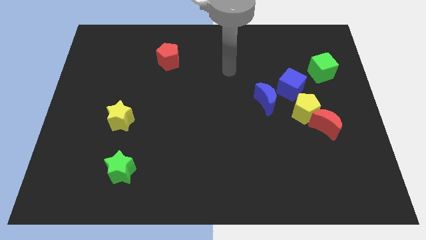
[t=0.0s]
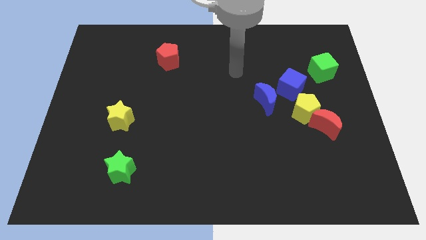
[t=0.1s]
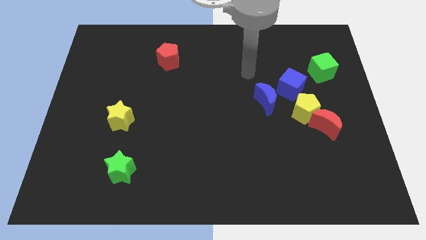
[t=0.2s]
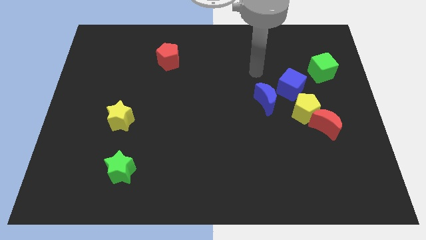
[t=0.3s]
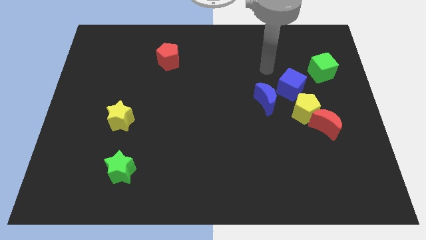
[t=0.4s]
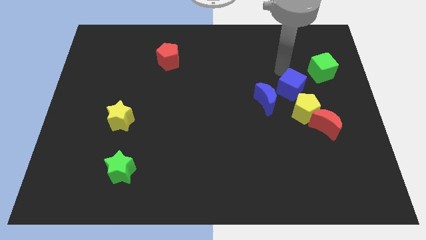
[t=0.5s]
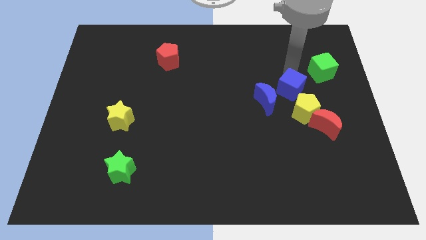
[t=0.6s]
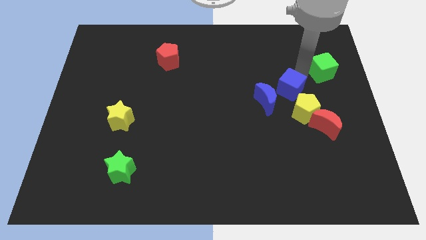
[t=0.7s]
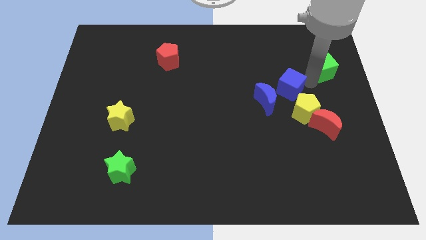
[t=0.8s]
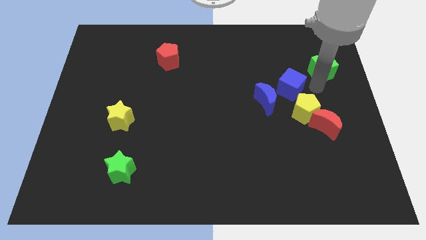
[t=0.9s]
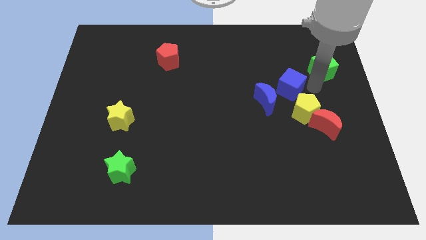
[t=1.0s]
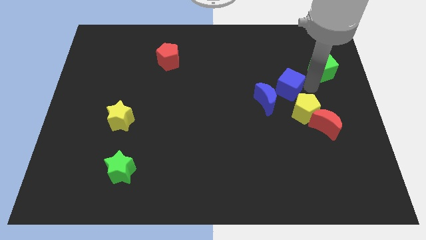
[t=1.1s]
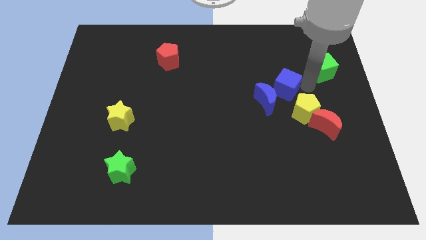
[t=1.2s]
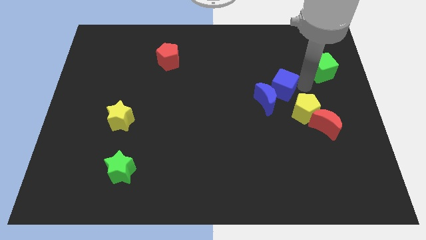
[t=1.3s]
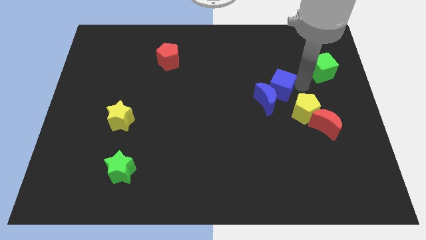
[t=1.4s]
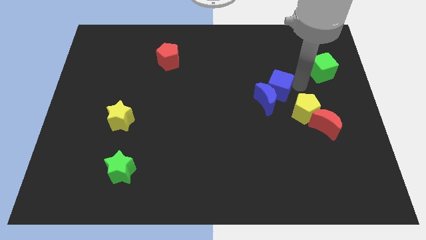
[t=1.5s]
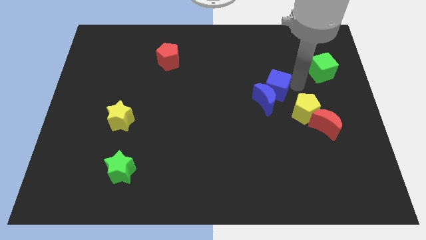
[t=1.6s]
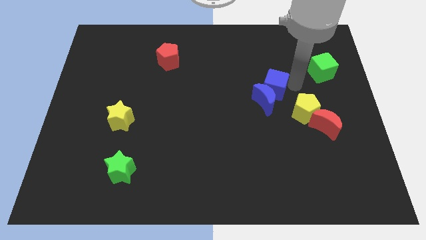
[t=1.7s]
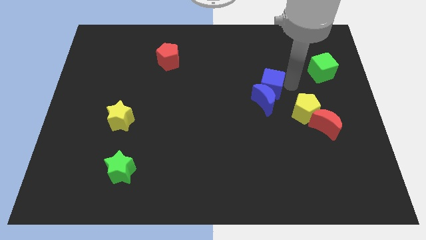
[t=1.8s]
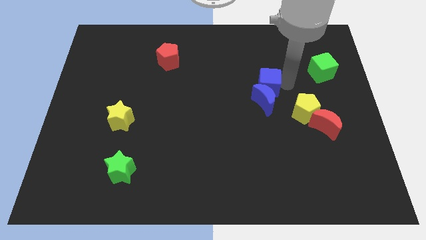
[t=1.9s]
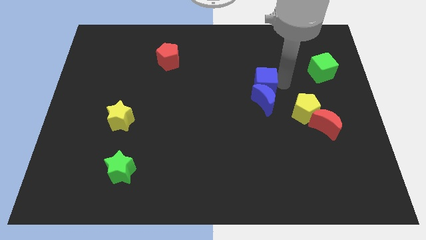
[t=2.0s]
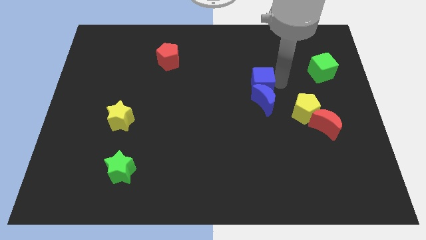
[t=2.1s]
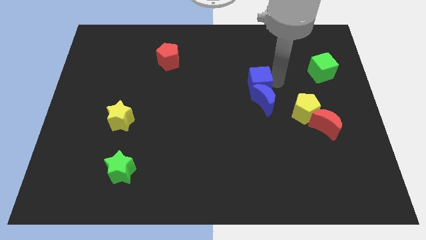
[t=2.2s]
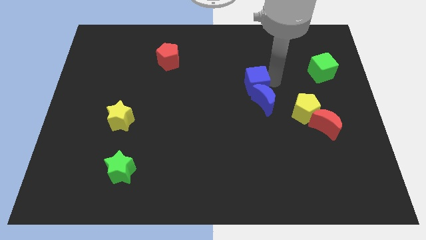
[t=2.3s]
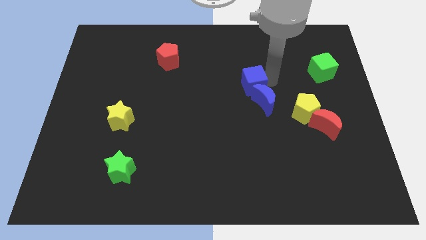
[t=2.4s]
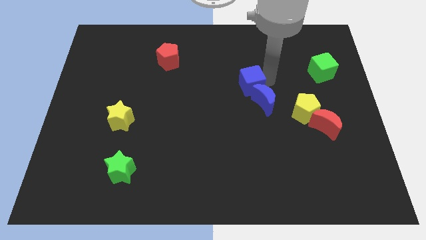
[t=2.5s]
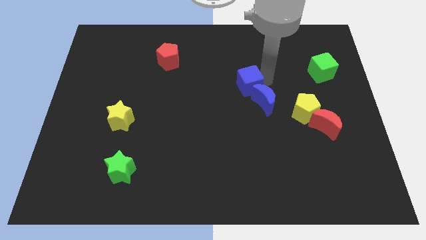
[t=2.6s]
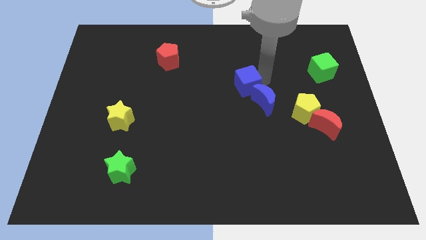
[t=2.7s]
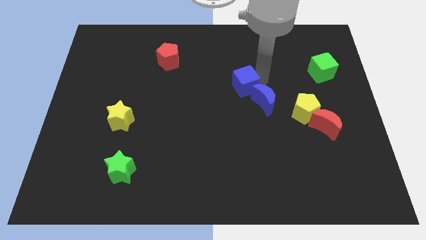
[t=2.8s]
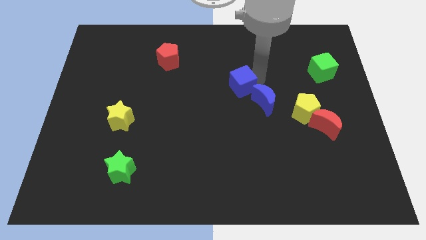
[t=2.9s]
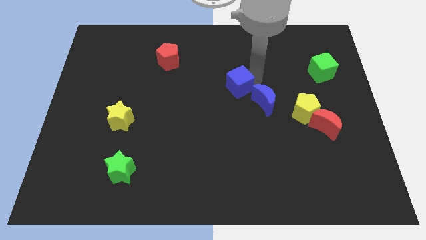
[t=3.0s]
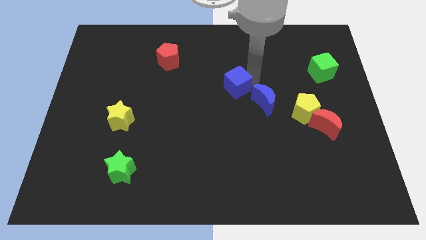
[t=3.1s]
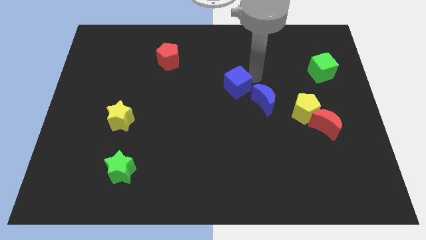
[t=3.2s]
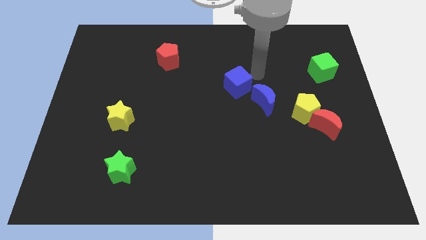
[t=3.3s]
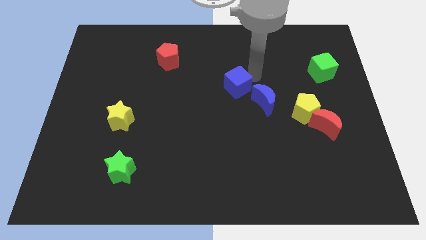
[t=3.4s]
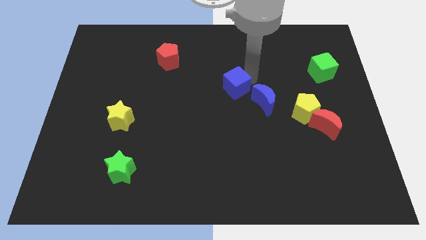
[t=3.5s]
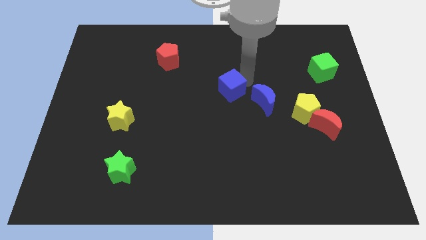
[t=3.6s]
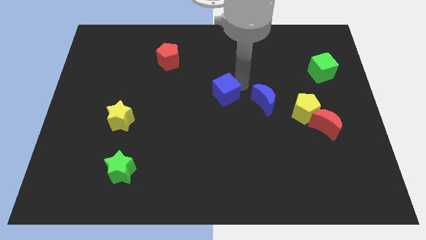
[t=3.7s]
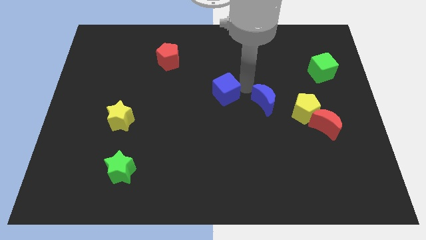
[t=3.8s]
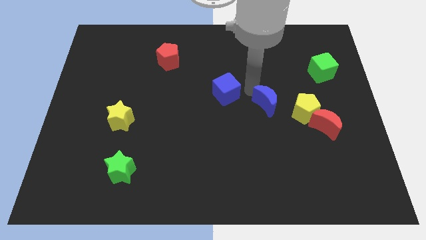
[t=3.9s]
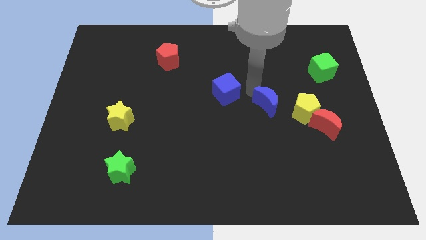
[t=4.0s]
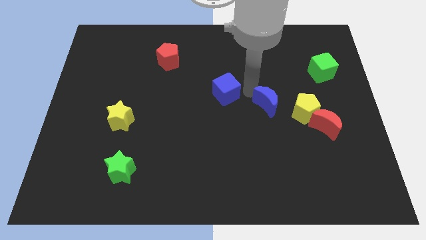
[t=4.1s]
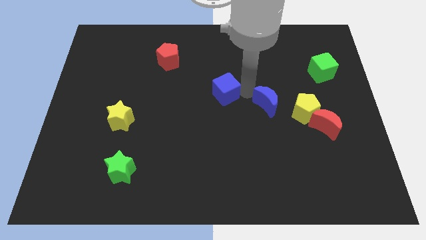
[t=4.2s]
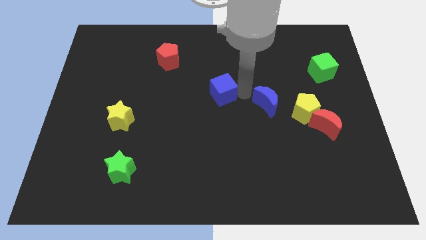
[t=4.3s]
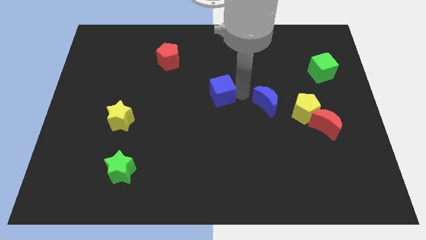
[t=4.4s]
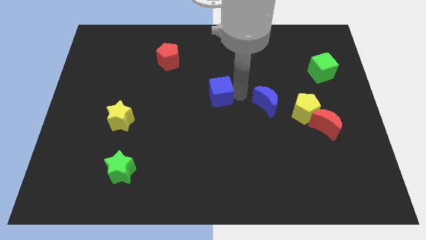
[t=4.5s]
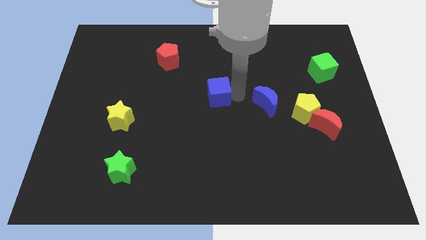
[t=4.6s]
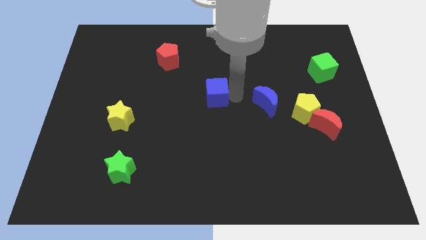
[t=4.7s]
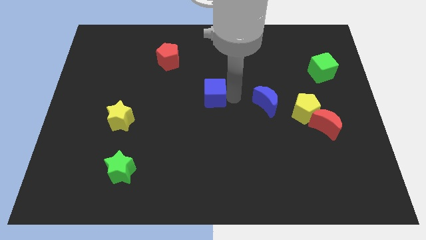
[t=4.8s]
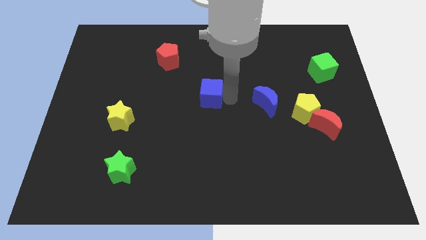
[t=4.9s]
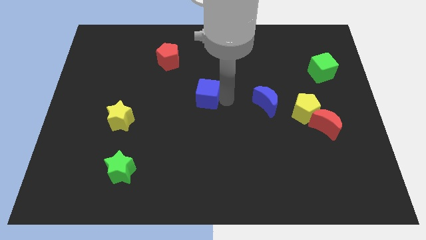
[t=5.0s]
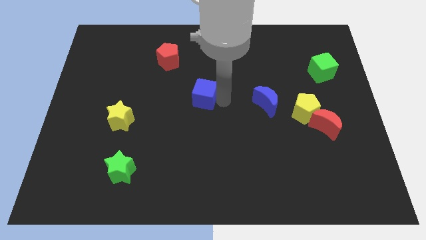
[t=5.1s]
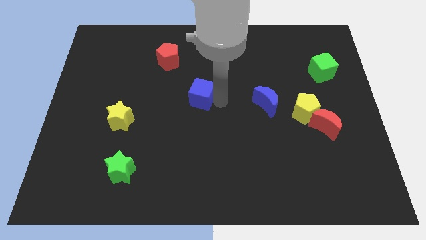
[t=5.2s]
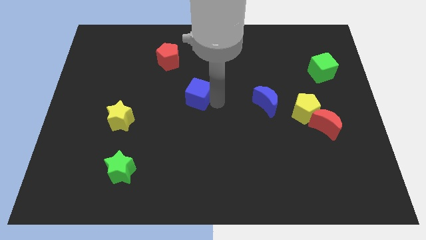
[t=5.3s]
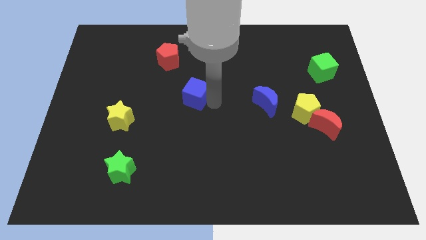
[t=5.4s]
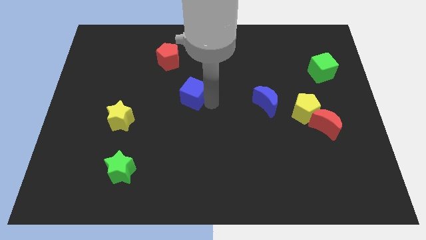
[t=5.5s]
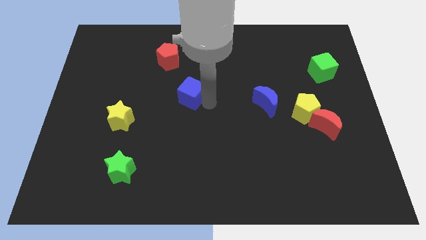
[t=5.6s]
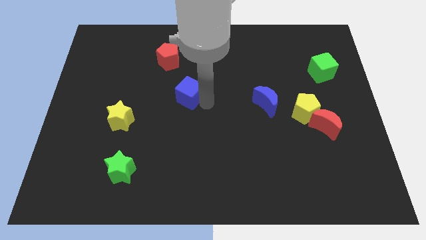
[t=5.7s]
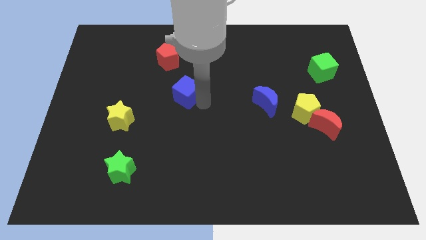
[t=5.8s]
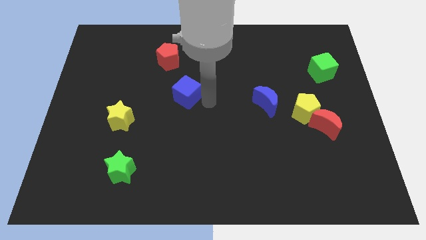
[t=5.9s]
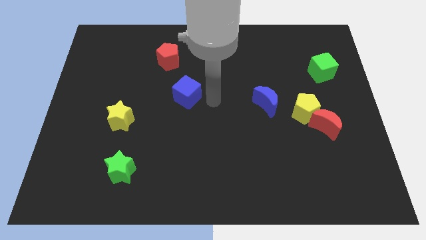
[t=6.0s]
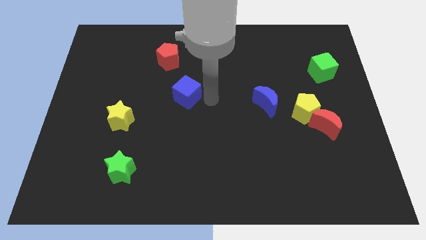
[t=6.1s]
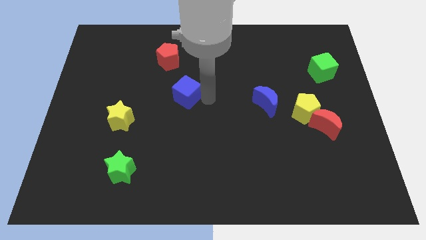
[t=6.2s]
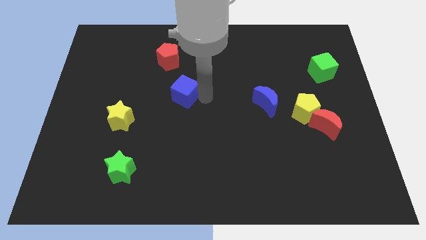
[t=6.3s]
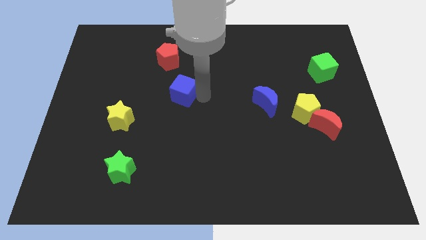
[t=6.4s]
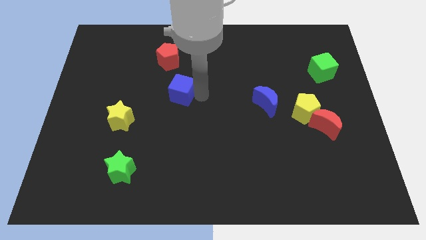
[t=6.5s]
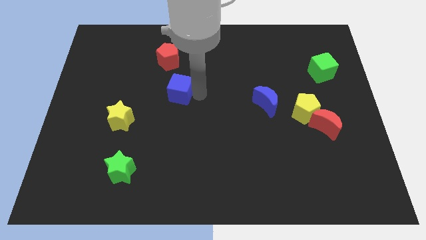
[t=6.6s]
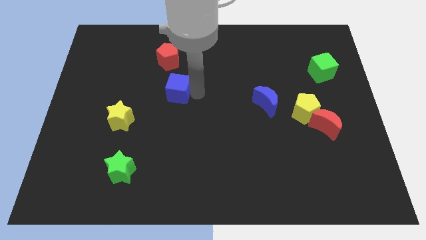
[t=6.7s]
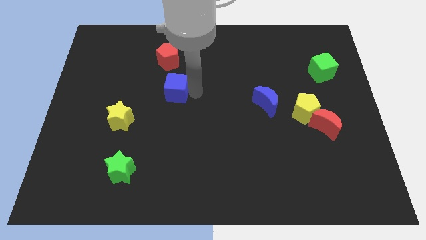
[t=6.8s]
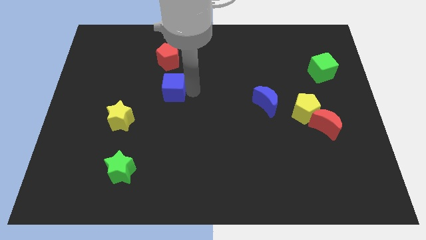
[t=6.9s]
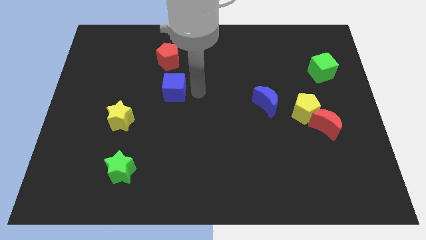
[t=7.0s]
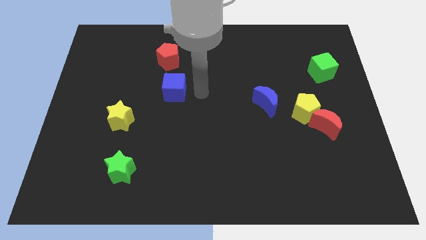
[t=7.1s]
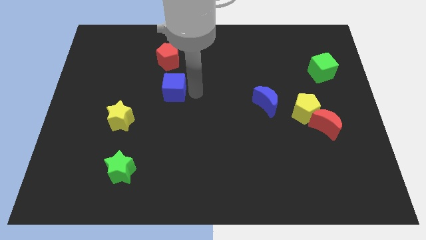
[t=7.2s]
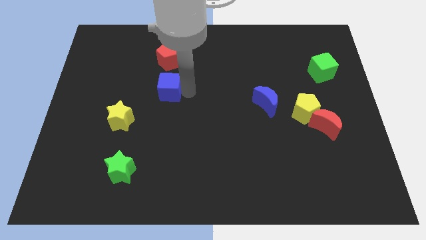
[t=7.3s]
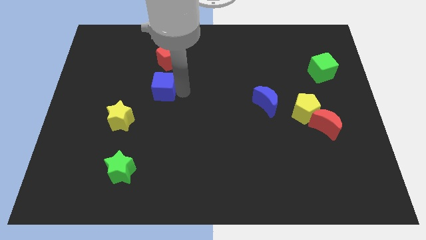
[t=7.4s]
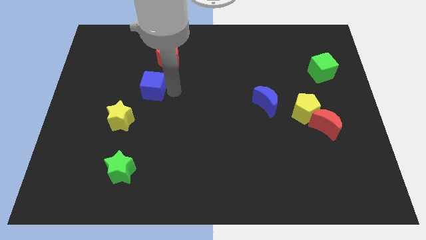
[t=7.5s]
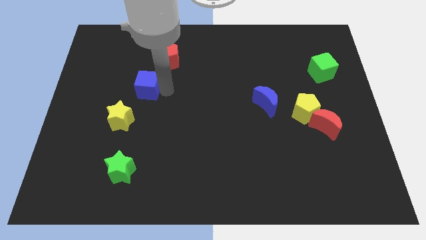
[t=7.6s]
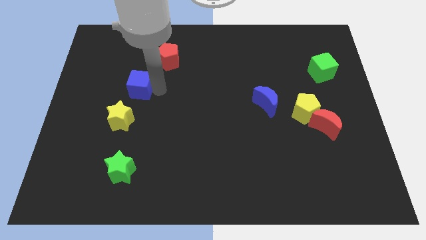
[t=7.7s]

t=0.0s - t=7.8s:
push the blue cube to the top side of the yellow star
